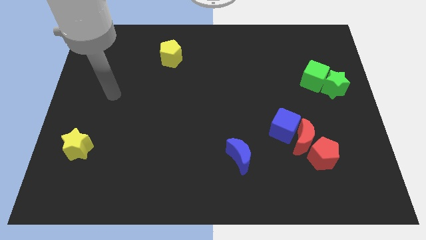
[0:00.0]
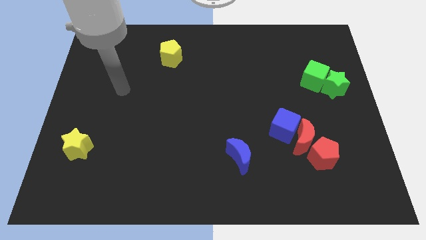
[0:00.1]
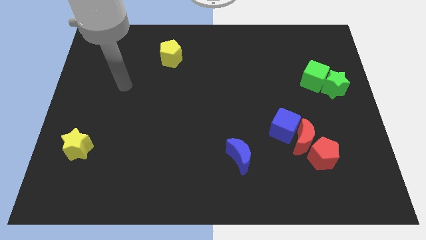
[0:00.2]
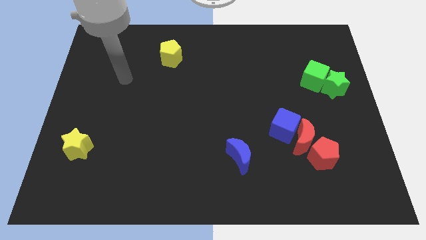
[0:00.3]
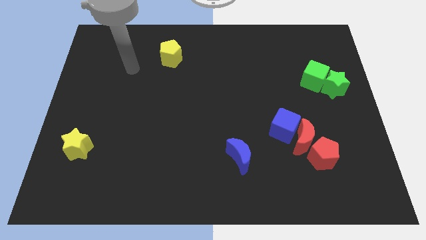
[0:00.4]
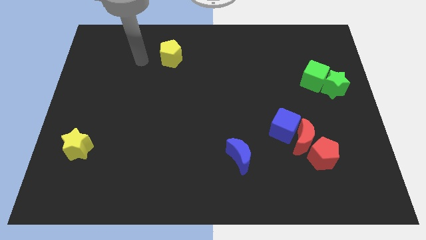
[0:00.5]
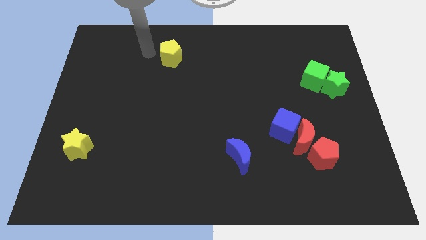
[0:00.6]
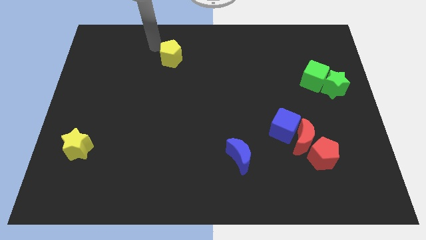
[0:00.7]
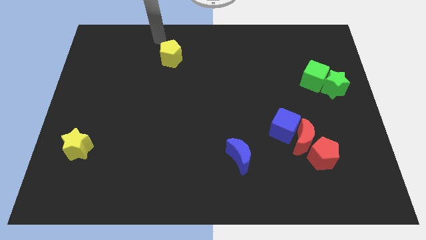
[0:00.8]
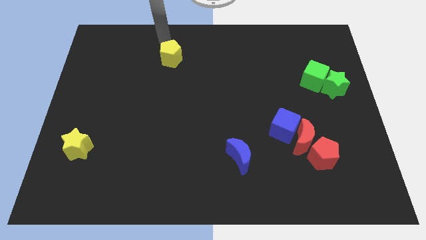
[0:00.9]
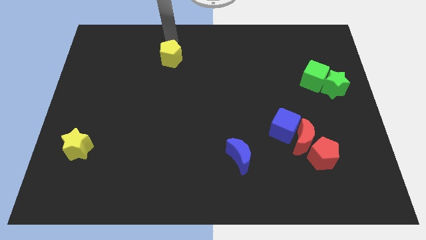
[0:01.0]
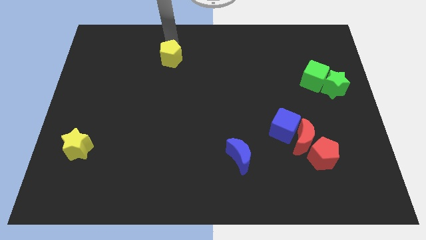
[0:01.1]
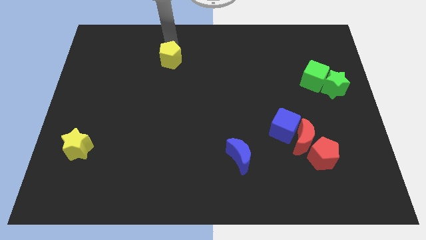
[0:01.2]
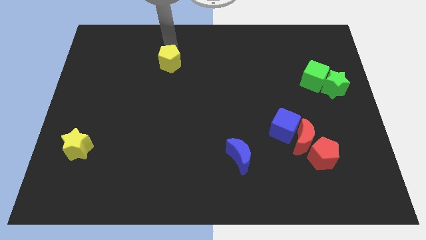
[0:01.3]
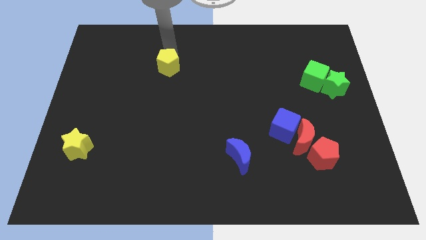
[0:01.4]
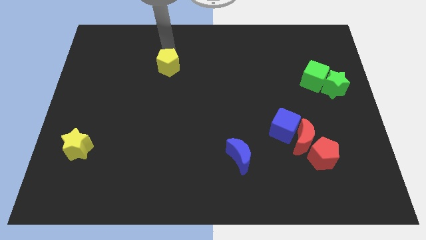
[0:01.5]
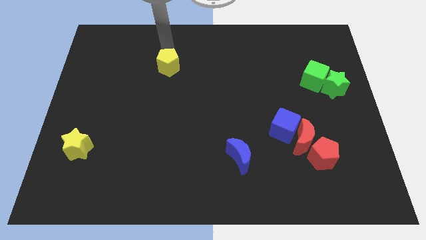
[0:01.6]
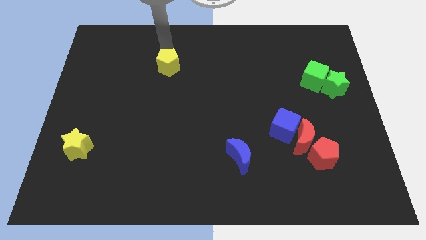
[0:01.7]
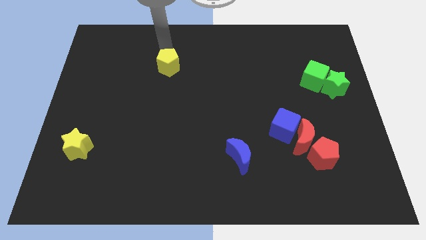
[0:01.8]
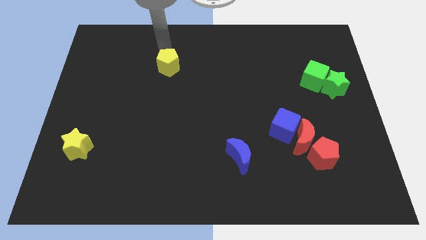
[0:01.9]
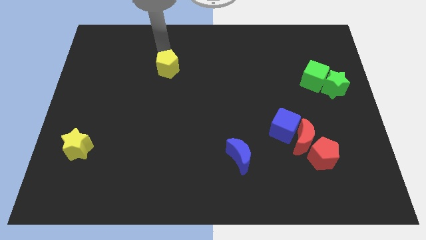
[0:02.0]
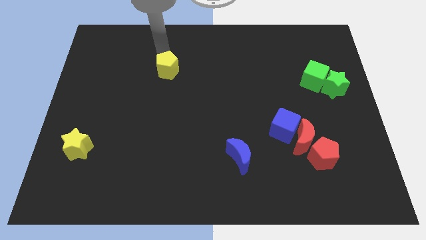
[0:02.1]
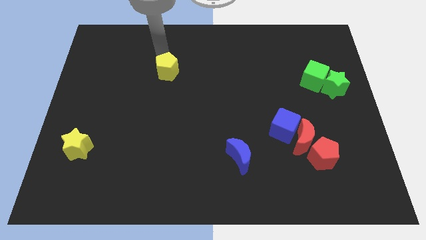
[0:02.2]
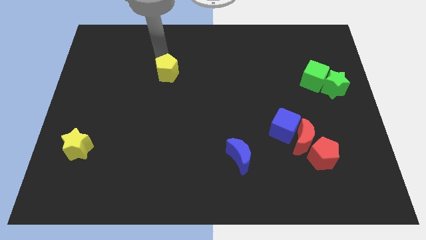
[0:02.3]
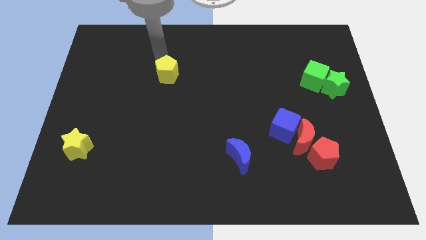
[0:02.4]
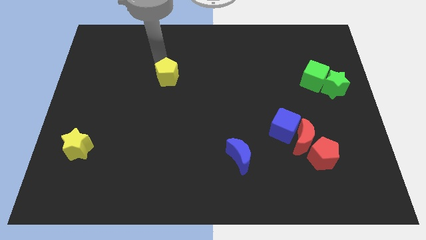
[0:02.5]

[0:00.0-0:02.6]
move the yellow pentagon downwards somewhat

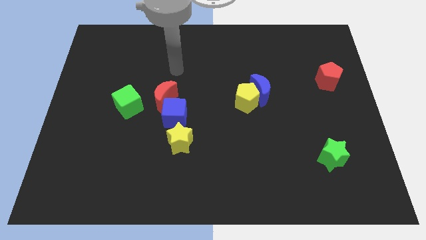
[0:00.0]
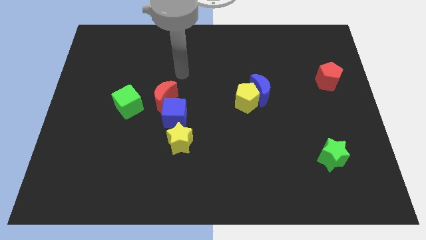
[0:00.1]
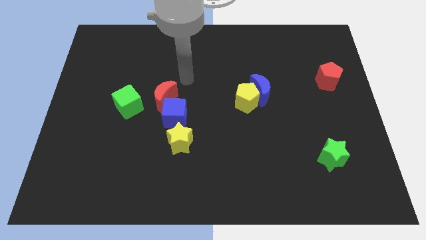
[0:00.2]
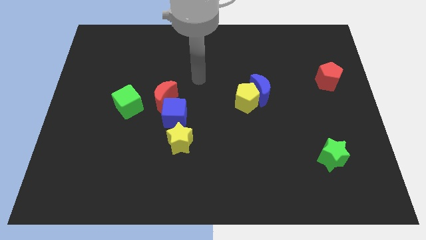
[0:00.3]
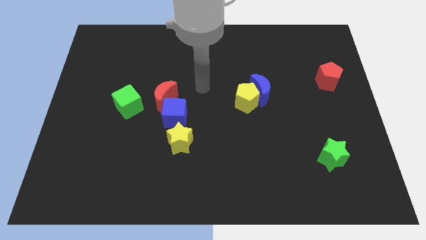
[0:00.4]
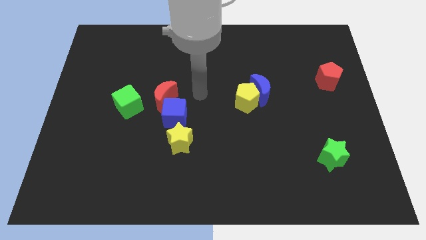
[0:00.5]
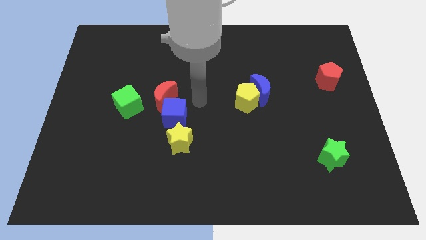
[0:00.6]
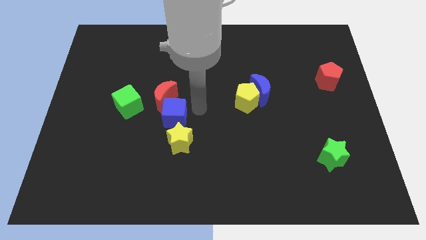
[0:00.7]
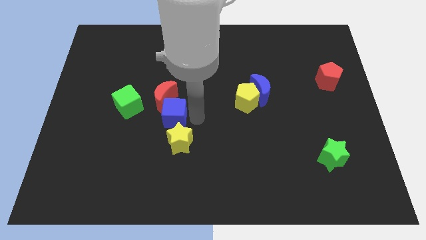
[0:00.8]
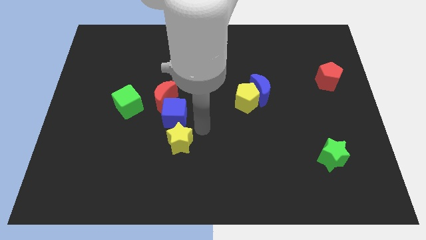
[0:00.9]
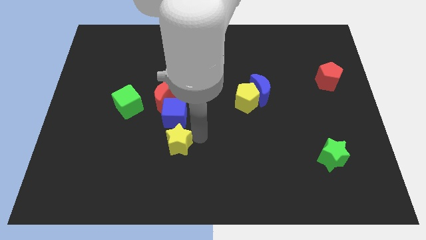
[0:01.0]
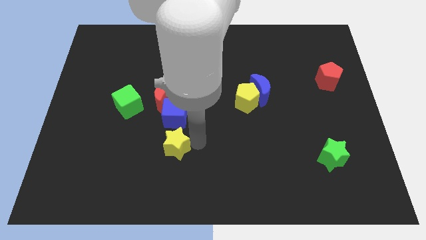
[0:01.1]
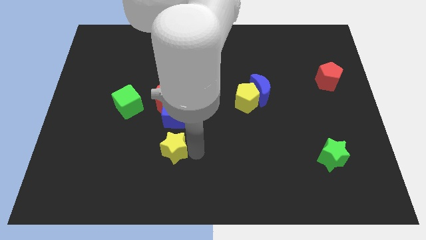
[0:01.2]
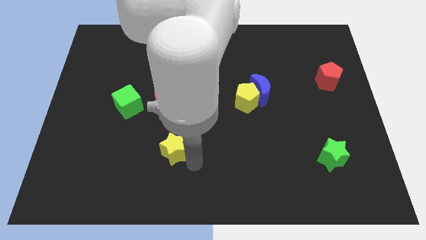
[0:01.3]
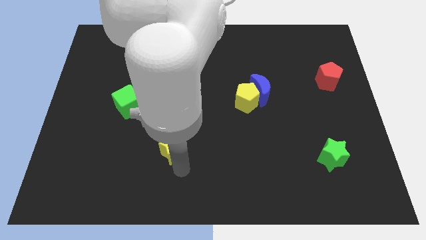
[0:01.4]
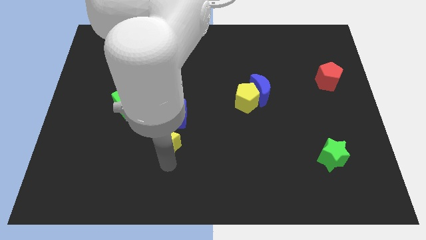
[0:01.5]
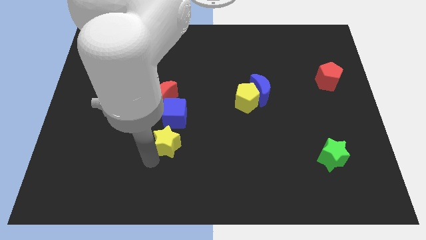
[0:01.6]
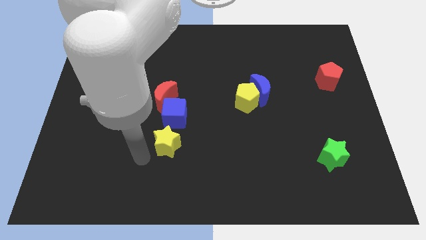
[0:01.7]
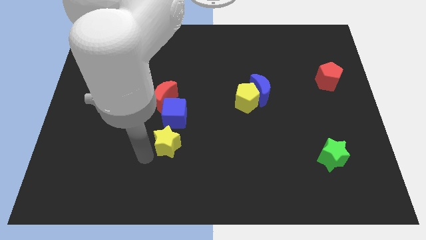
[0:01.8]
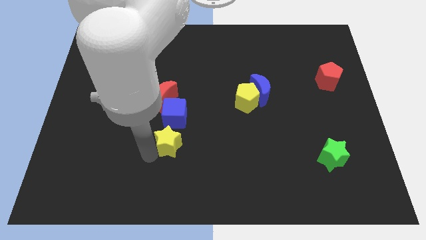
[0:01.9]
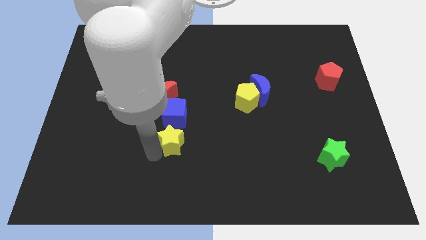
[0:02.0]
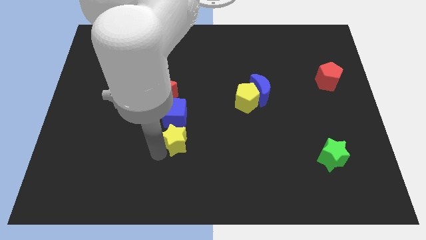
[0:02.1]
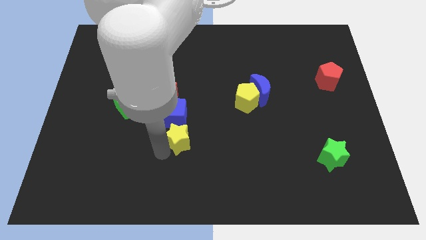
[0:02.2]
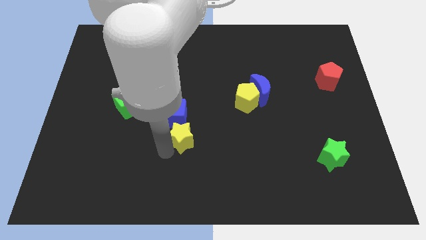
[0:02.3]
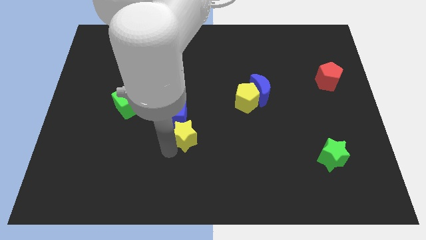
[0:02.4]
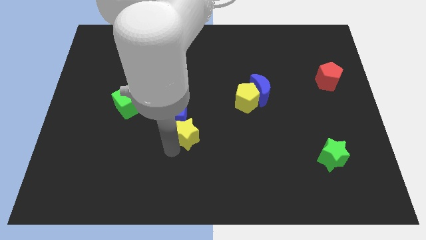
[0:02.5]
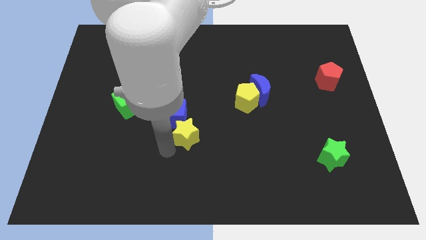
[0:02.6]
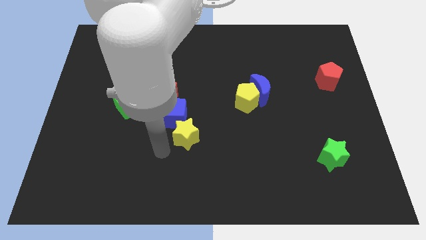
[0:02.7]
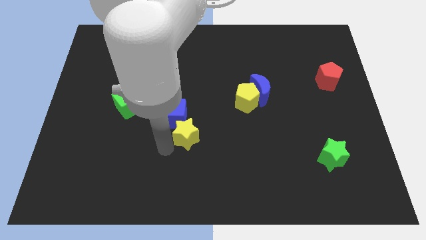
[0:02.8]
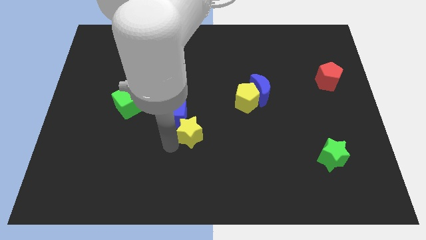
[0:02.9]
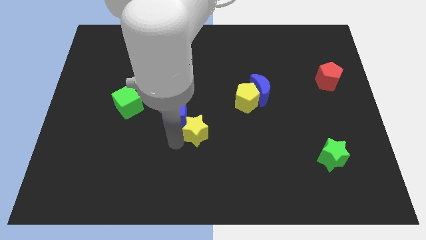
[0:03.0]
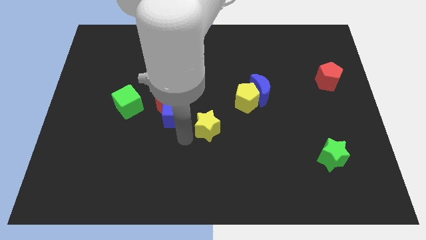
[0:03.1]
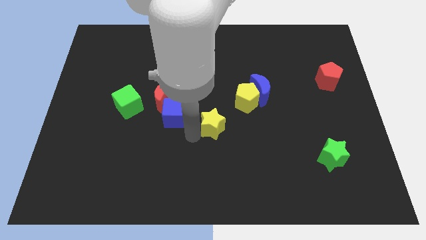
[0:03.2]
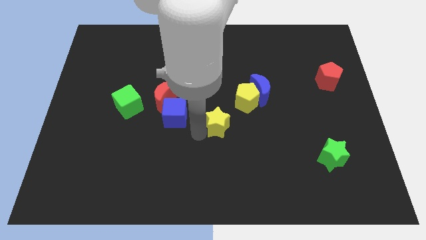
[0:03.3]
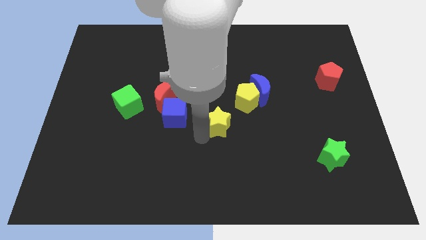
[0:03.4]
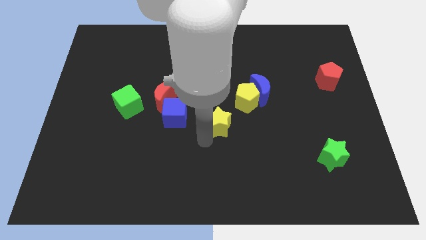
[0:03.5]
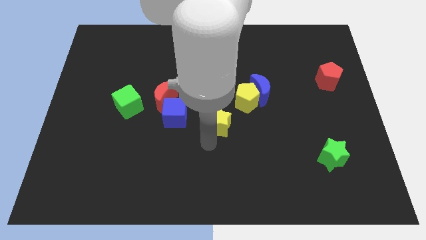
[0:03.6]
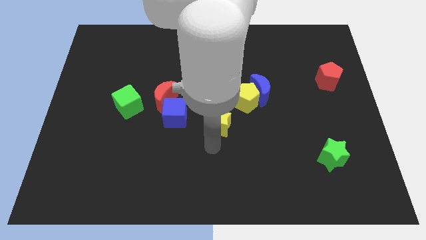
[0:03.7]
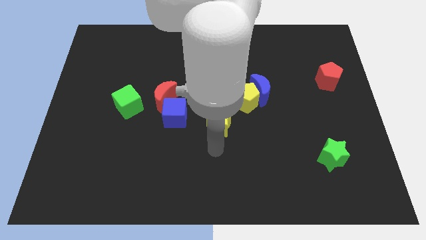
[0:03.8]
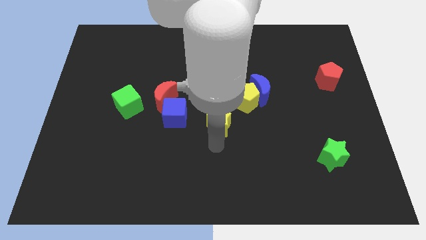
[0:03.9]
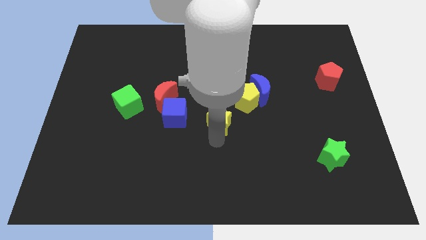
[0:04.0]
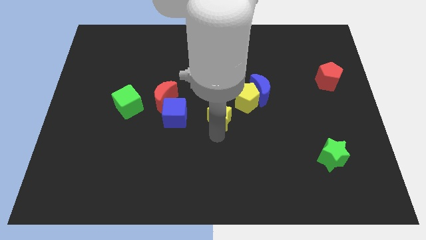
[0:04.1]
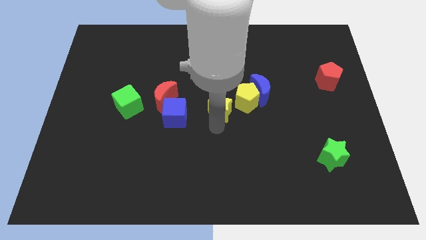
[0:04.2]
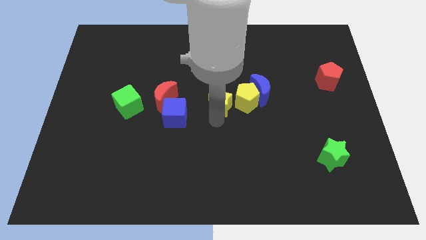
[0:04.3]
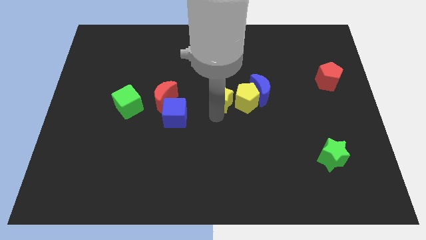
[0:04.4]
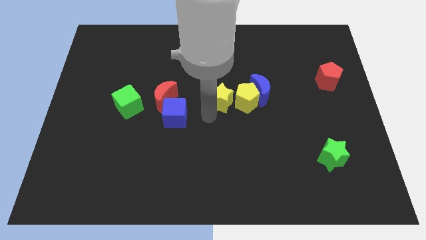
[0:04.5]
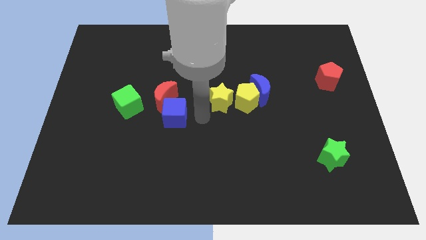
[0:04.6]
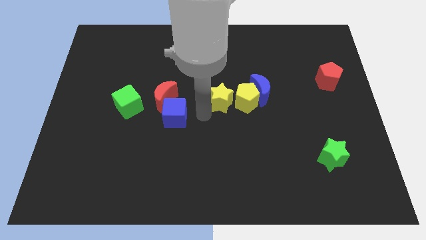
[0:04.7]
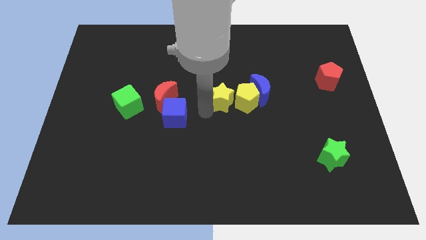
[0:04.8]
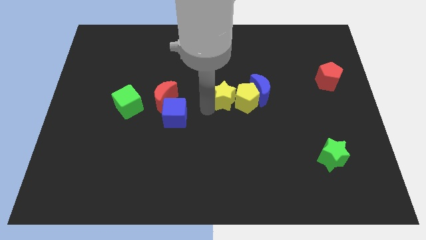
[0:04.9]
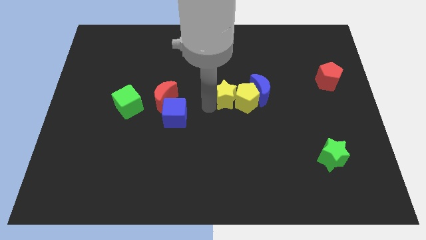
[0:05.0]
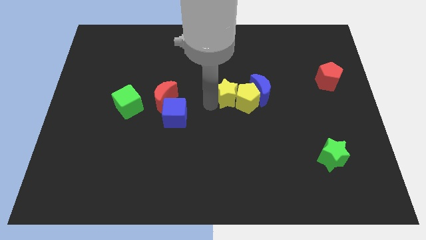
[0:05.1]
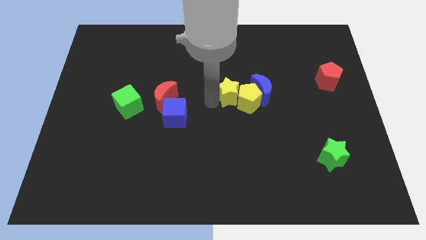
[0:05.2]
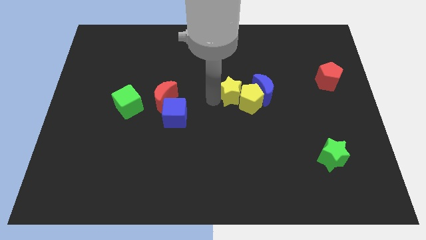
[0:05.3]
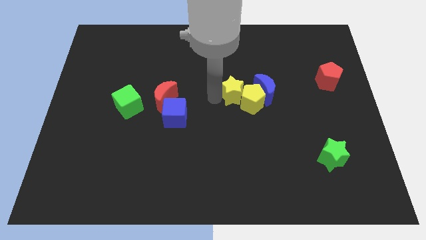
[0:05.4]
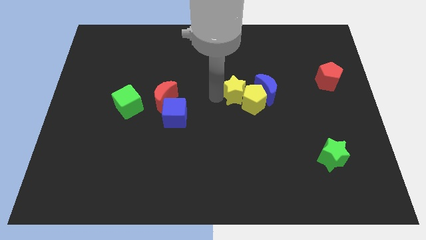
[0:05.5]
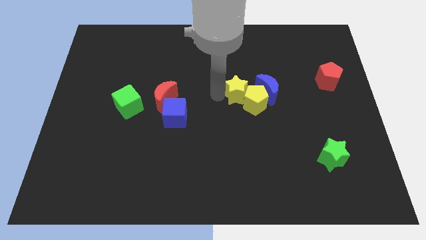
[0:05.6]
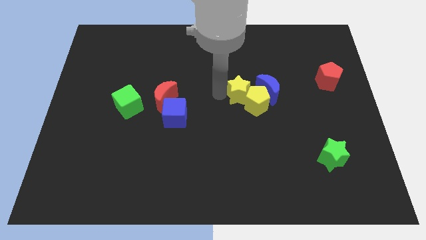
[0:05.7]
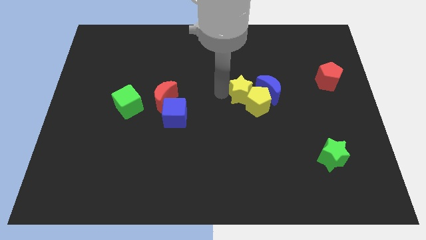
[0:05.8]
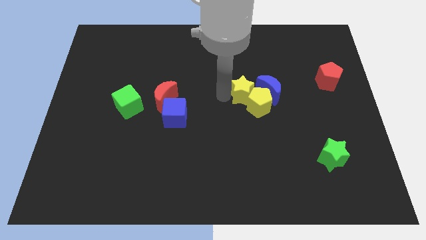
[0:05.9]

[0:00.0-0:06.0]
move the yellow star upwards and right
